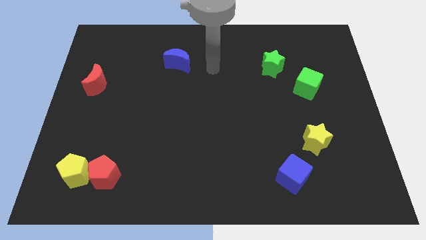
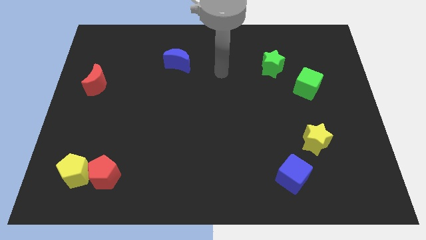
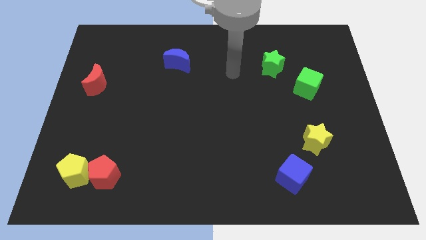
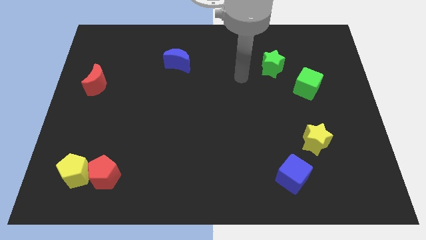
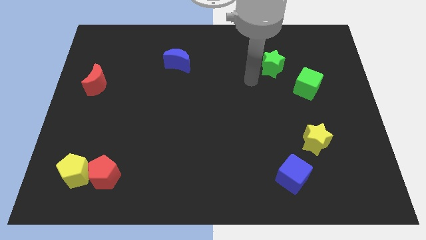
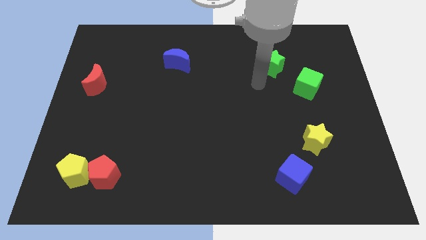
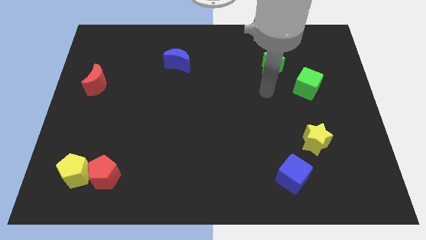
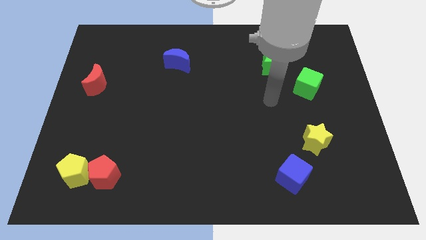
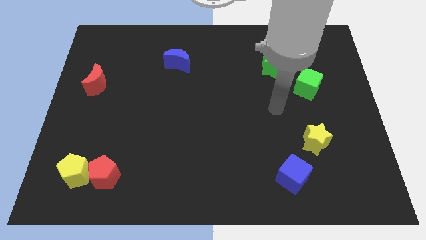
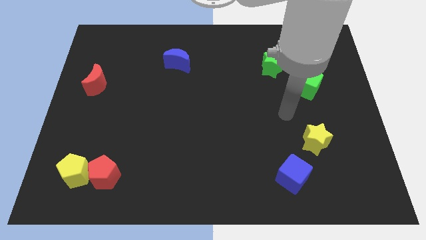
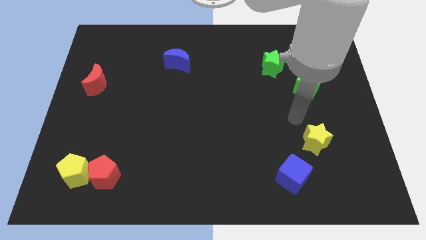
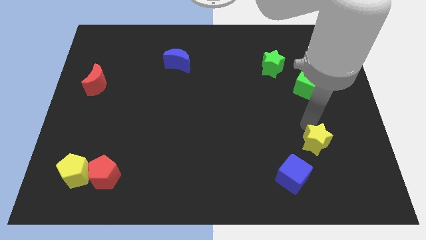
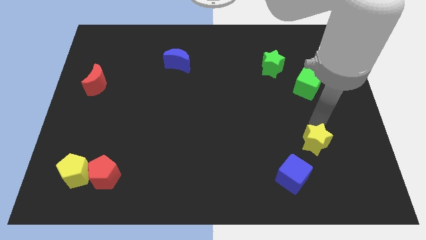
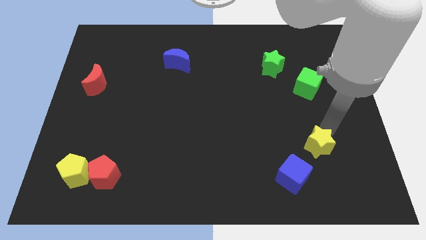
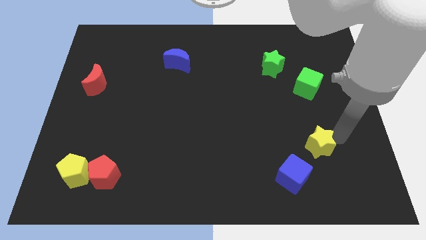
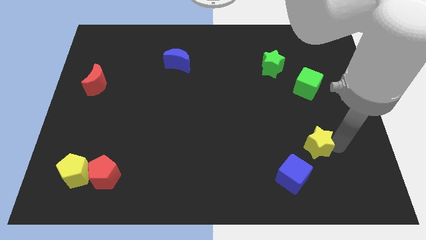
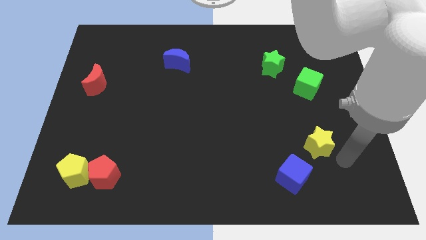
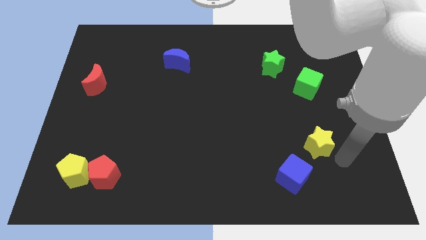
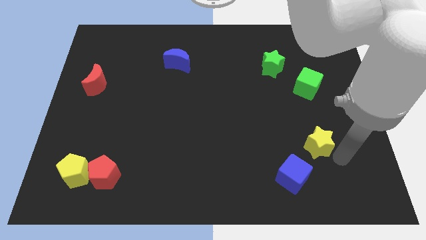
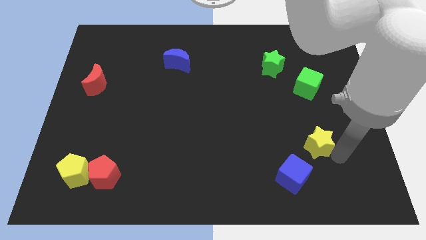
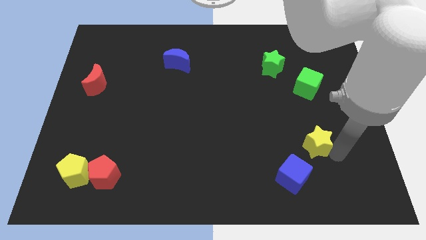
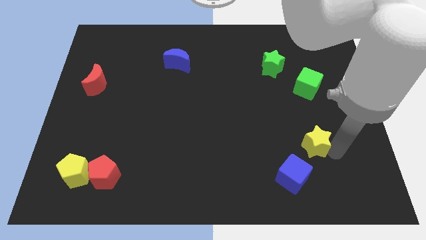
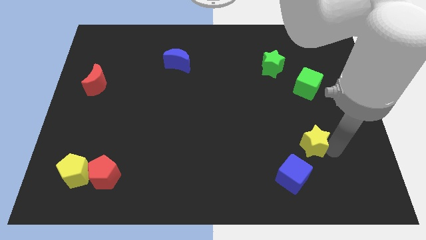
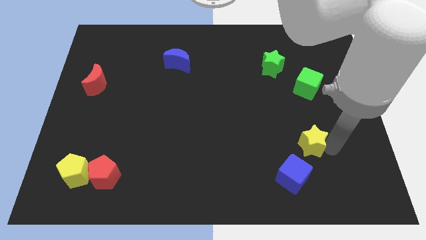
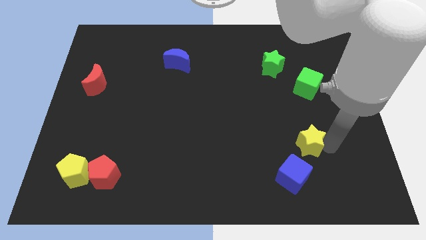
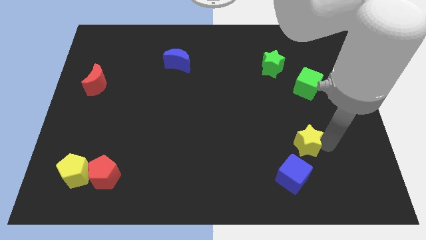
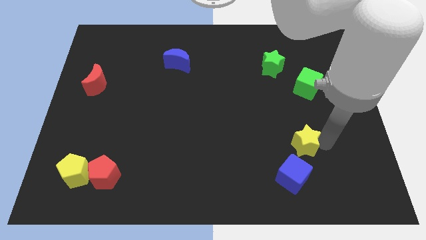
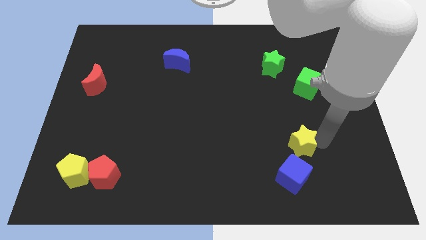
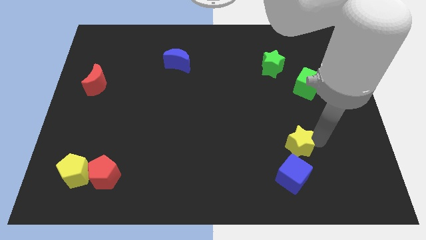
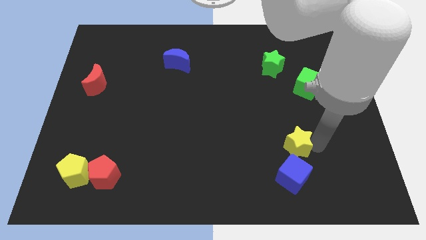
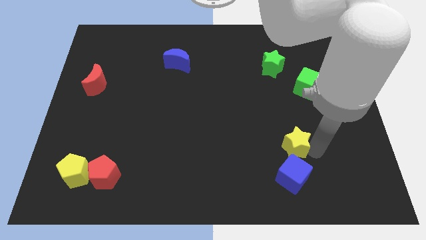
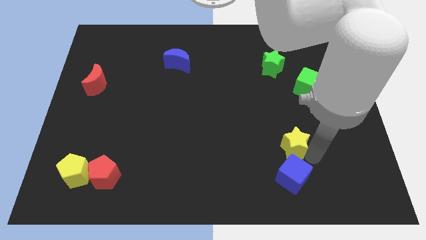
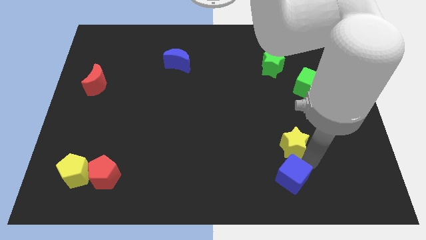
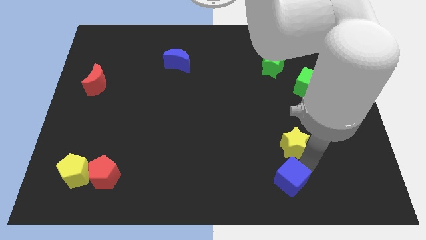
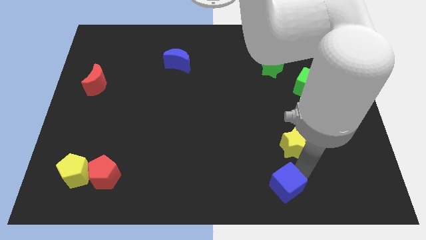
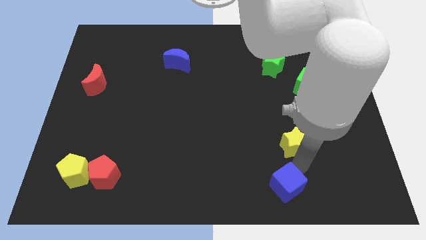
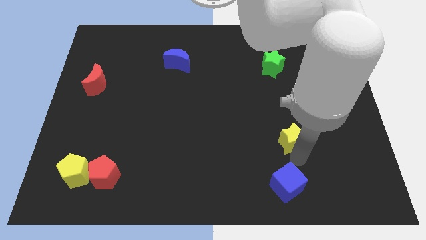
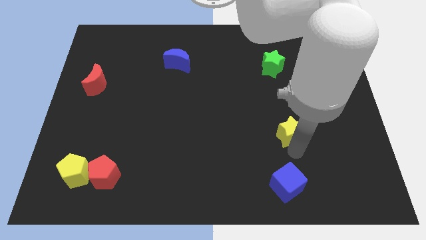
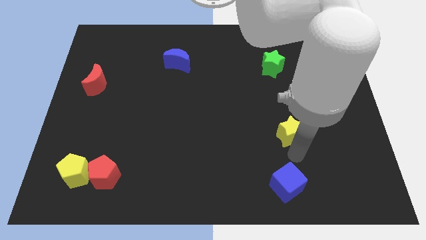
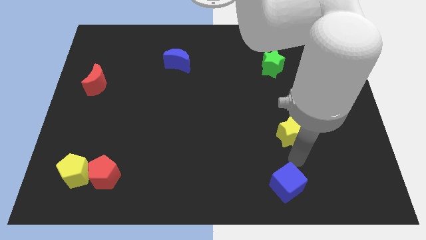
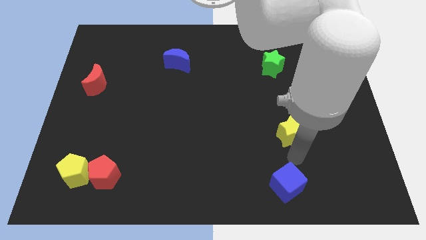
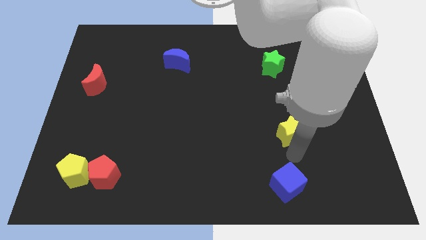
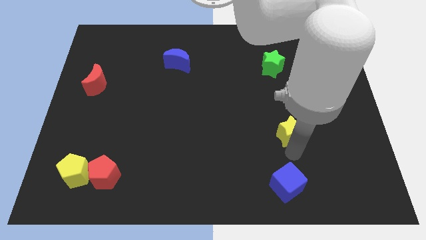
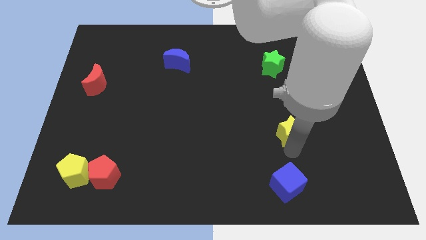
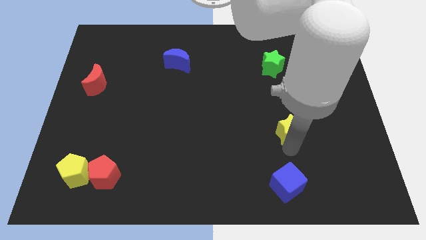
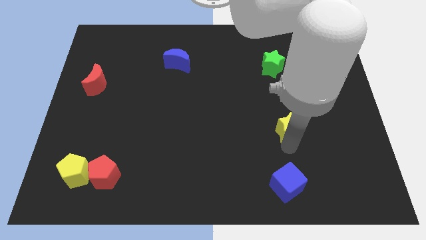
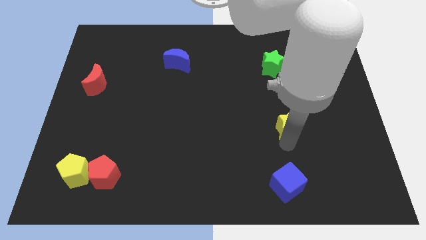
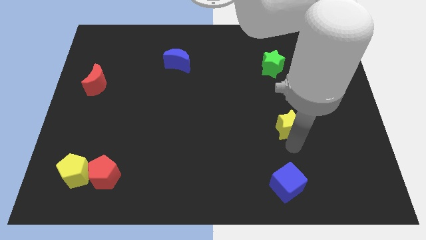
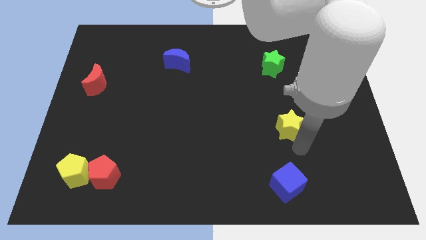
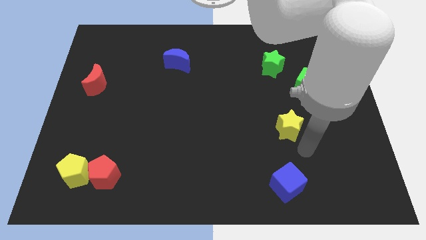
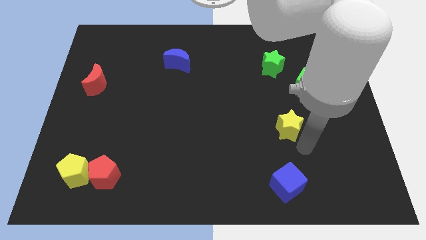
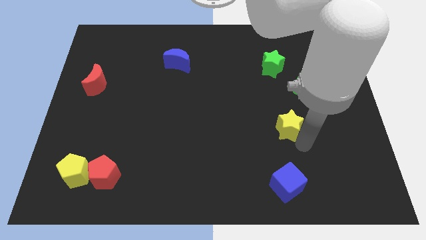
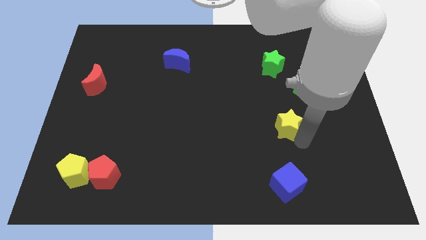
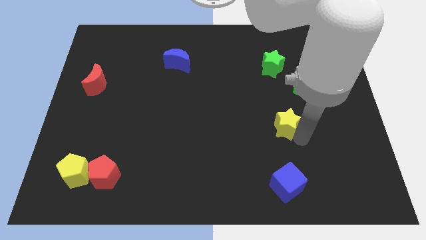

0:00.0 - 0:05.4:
slightly slide the yellow star upwards and left diagonally

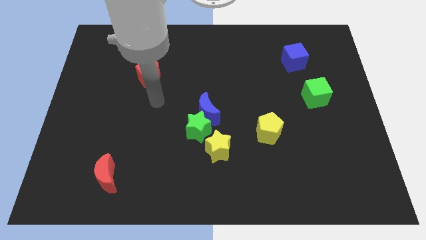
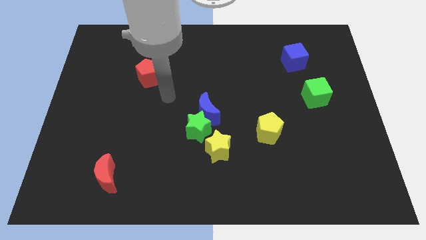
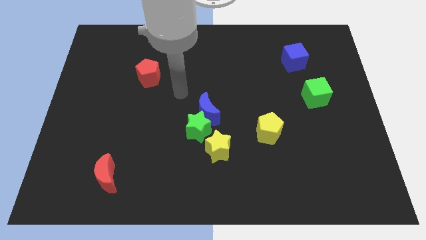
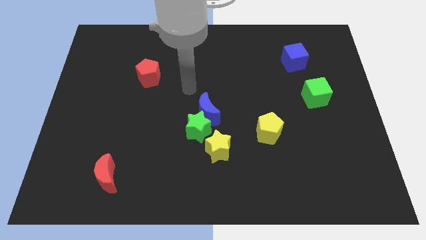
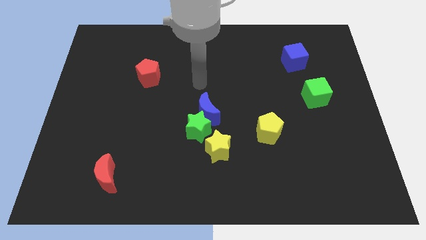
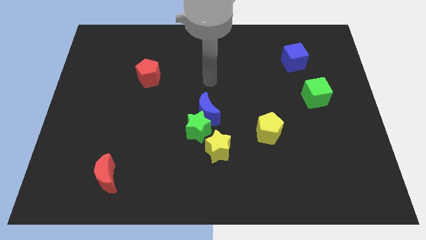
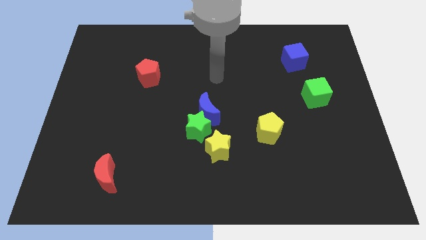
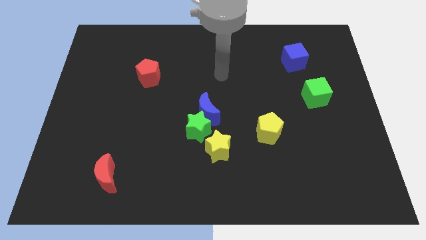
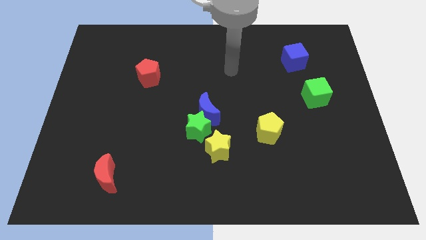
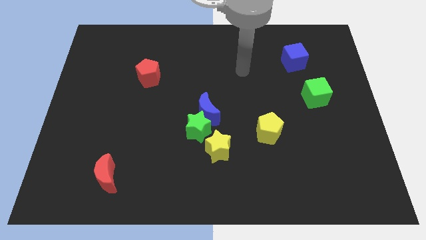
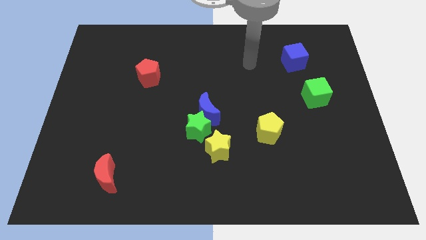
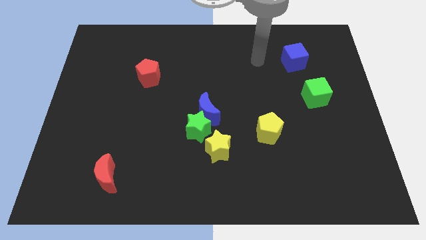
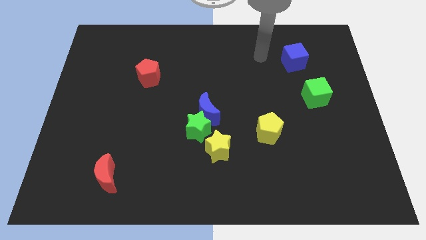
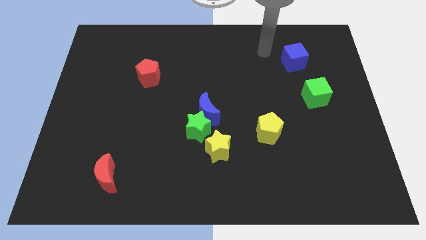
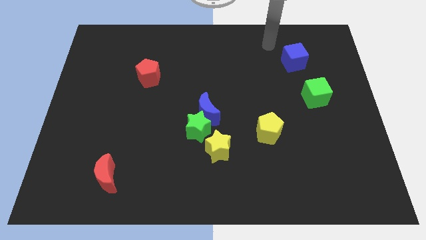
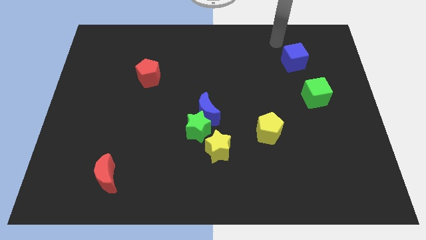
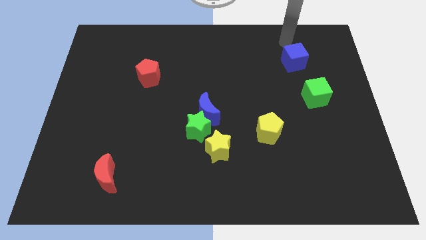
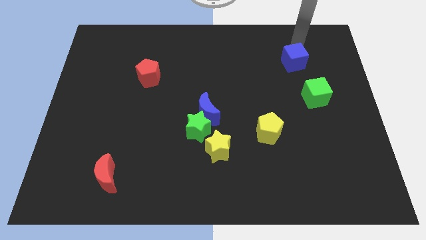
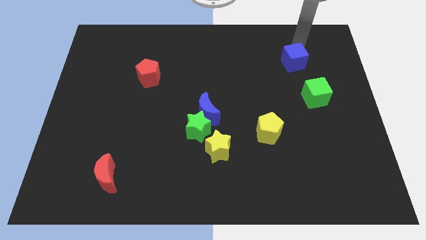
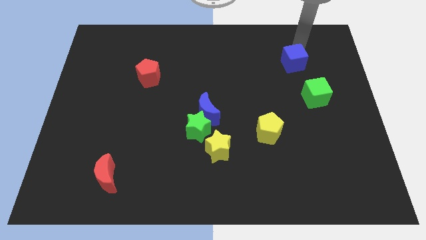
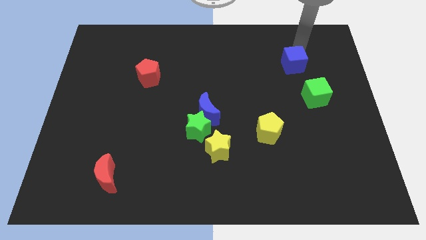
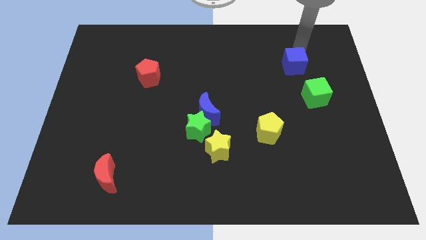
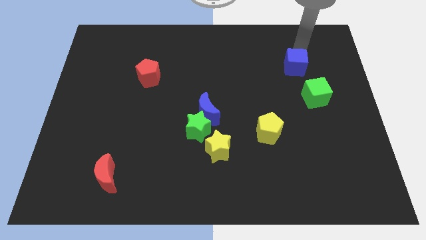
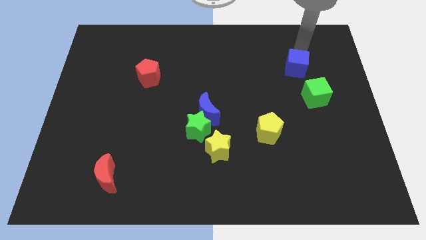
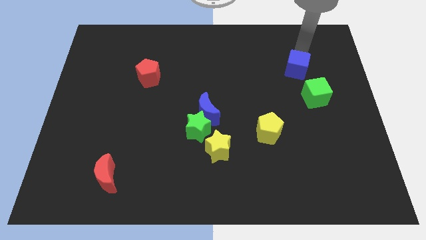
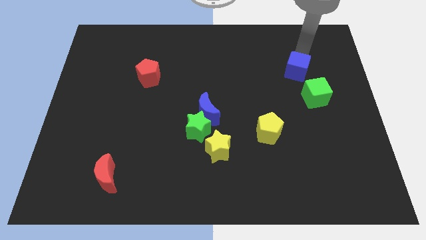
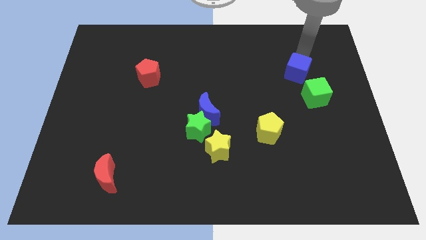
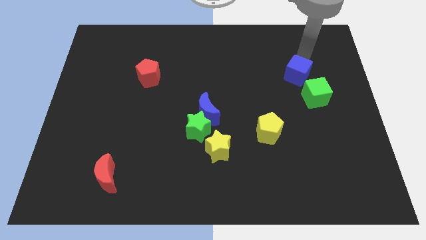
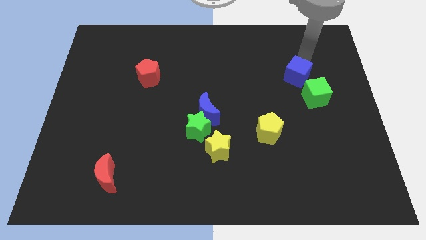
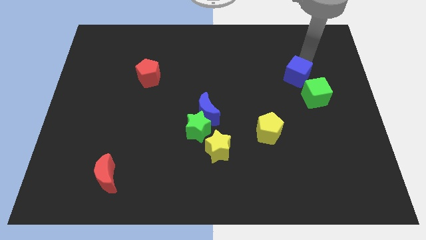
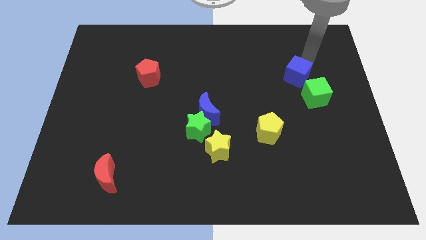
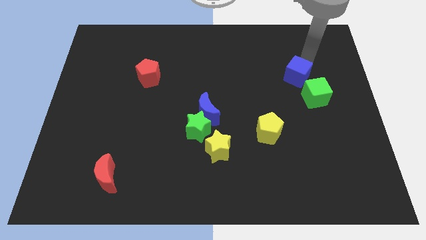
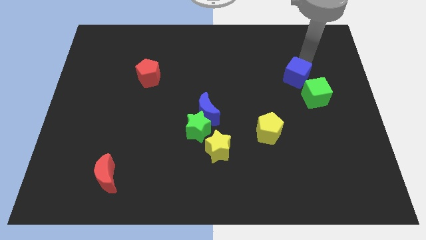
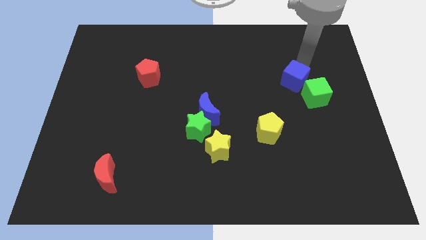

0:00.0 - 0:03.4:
slightly move the blue cube down
